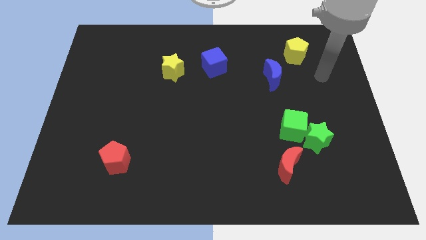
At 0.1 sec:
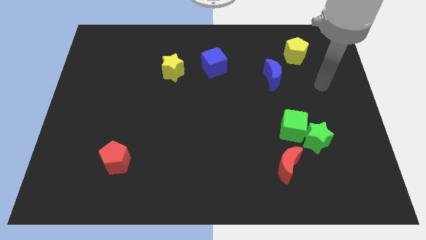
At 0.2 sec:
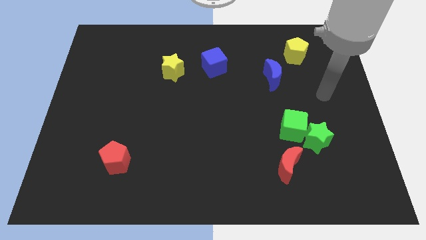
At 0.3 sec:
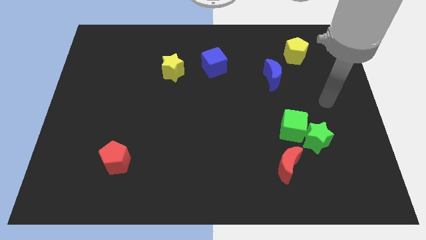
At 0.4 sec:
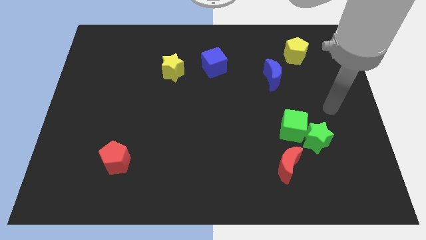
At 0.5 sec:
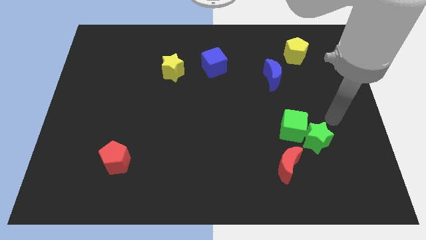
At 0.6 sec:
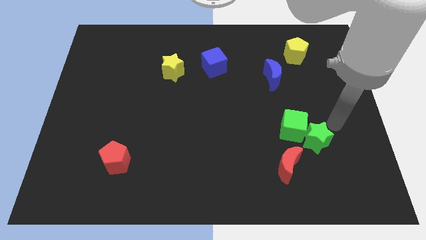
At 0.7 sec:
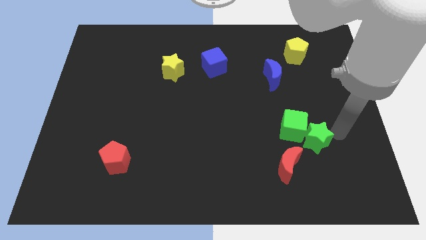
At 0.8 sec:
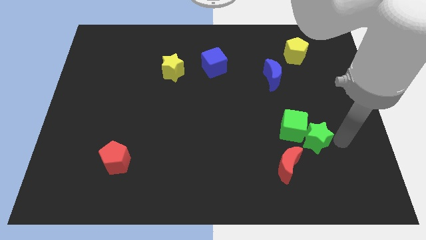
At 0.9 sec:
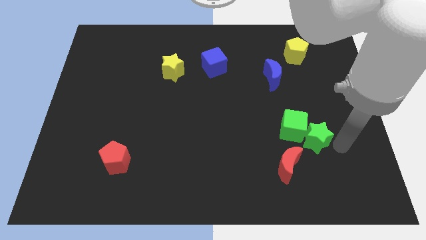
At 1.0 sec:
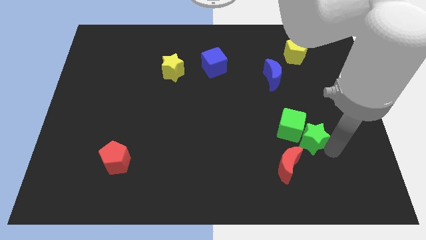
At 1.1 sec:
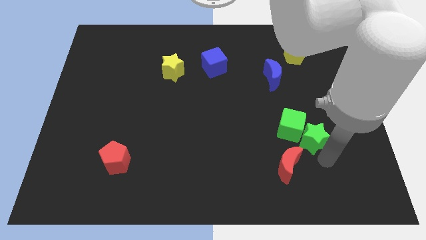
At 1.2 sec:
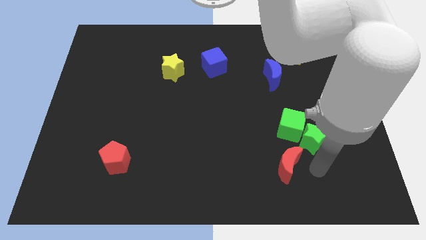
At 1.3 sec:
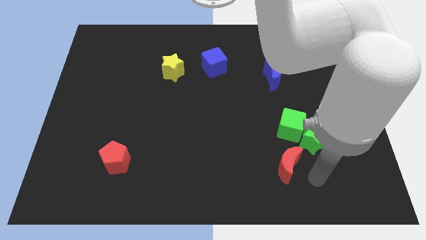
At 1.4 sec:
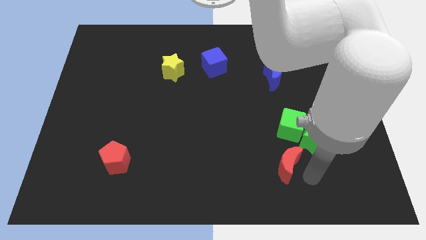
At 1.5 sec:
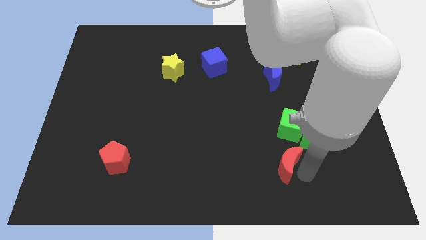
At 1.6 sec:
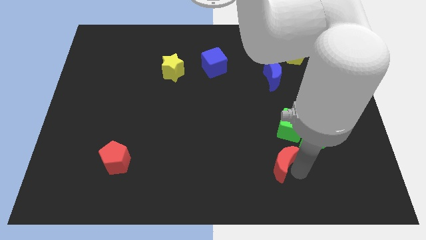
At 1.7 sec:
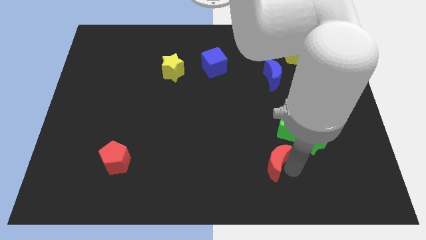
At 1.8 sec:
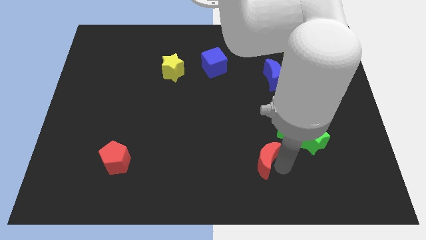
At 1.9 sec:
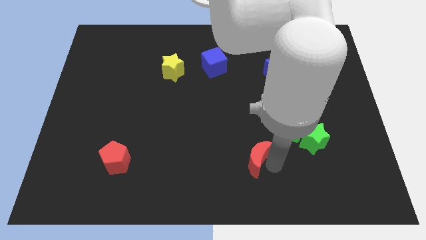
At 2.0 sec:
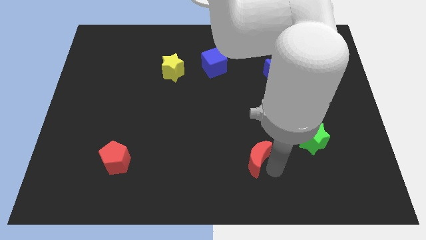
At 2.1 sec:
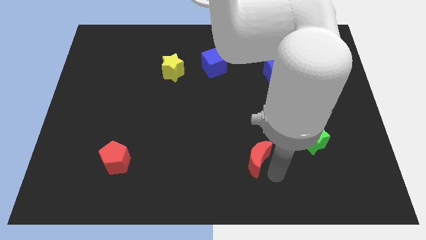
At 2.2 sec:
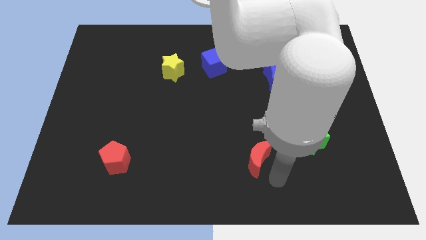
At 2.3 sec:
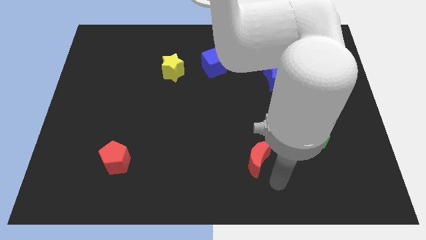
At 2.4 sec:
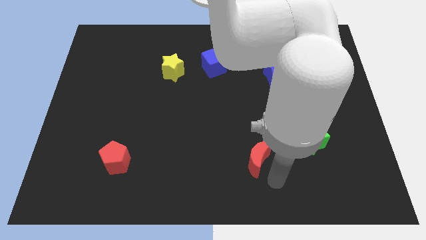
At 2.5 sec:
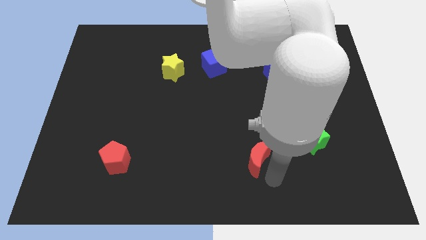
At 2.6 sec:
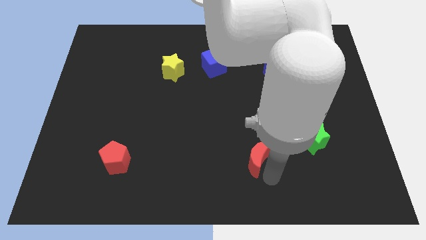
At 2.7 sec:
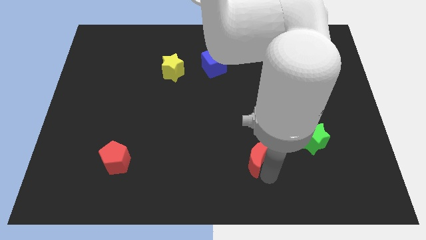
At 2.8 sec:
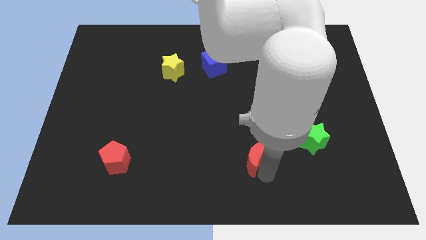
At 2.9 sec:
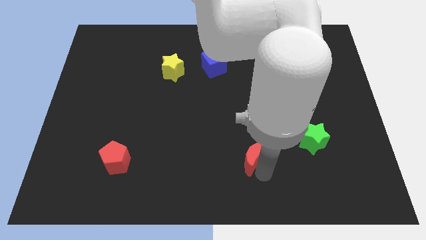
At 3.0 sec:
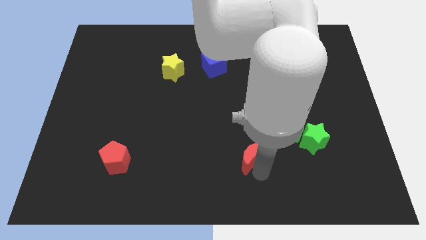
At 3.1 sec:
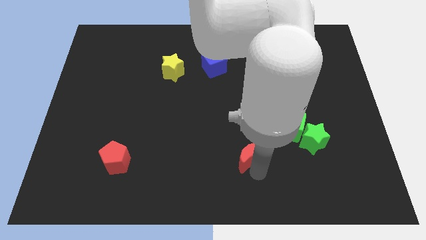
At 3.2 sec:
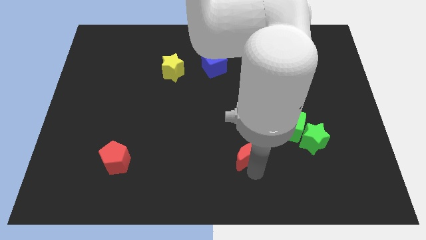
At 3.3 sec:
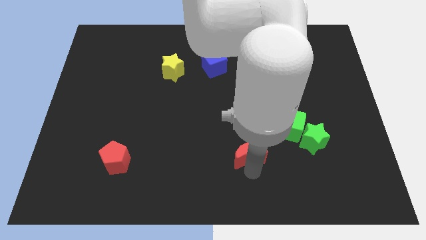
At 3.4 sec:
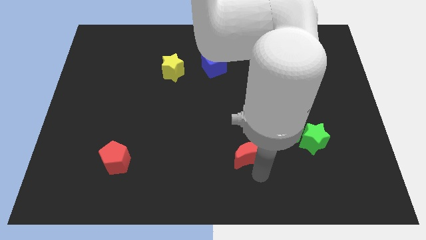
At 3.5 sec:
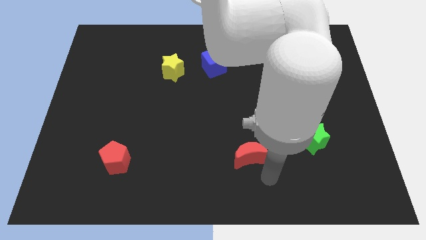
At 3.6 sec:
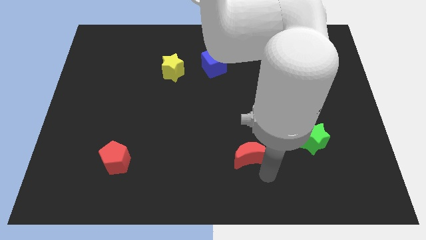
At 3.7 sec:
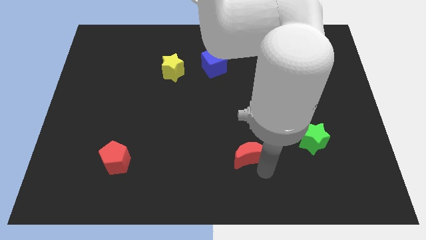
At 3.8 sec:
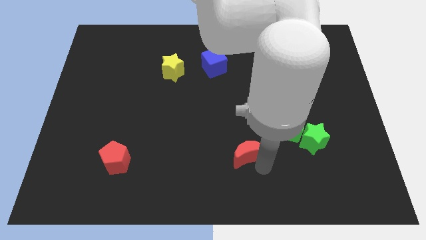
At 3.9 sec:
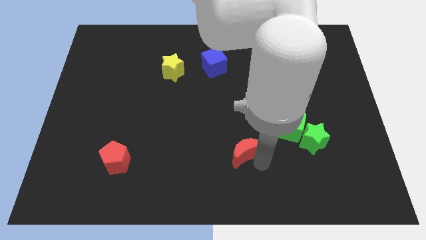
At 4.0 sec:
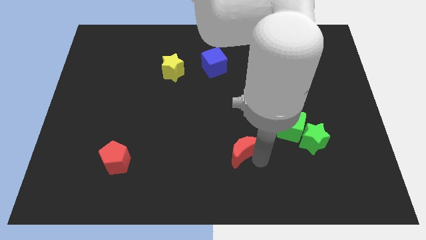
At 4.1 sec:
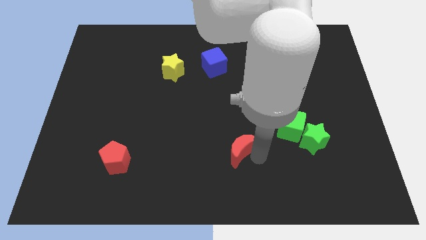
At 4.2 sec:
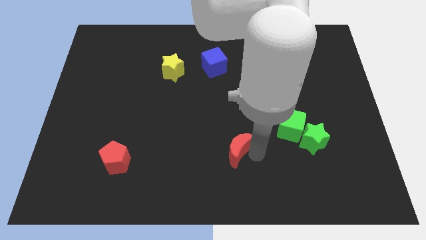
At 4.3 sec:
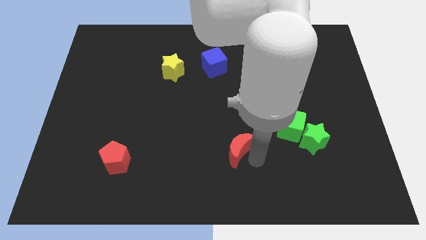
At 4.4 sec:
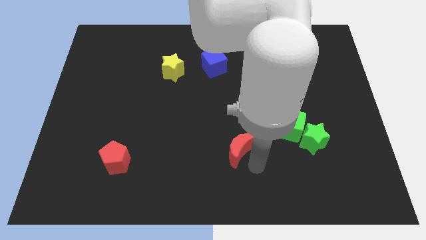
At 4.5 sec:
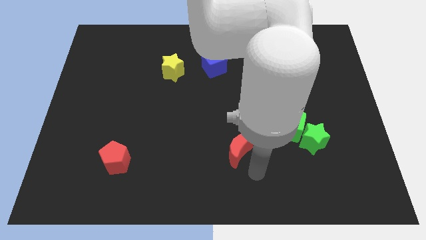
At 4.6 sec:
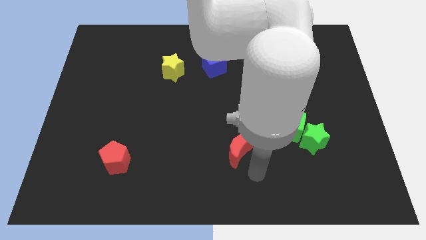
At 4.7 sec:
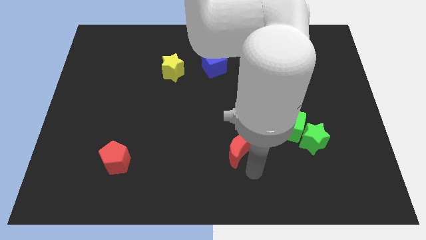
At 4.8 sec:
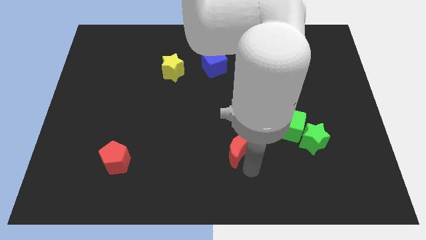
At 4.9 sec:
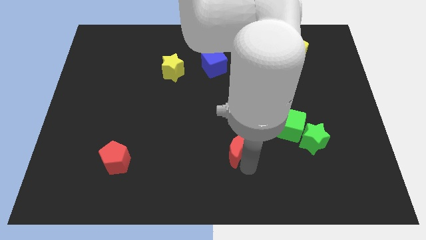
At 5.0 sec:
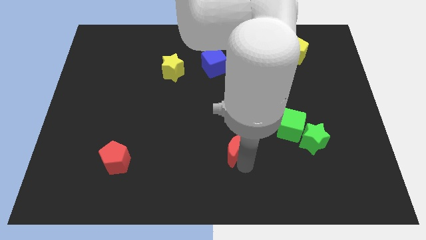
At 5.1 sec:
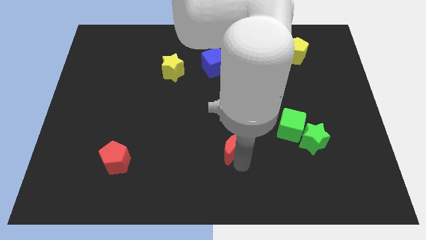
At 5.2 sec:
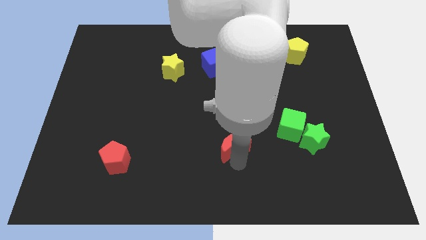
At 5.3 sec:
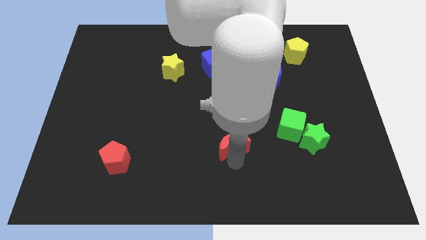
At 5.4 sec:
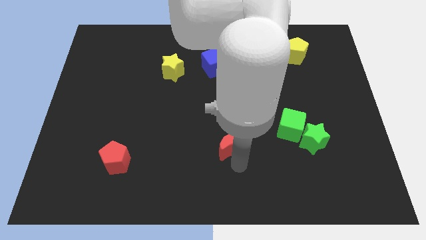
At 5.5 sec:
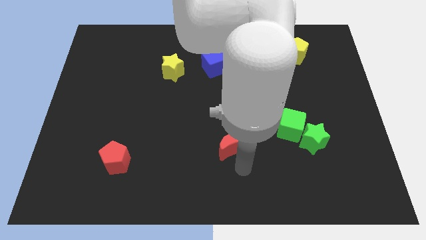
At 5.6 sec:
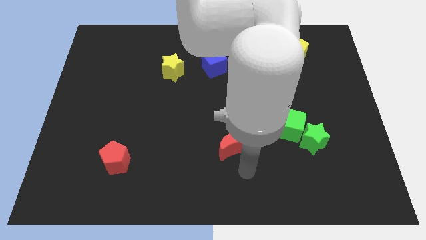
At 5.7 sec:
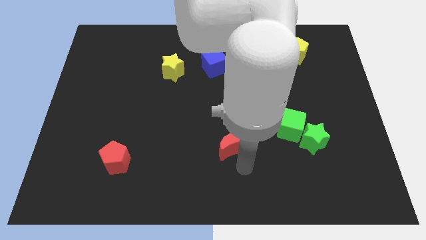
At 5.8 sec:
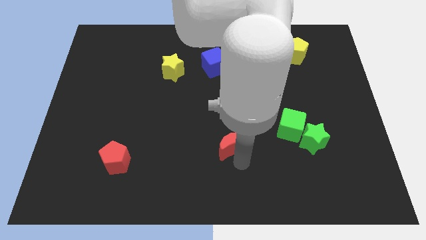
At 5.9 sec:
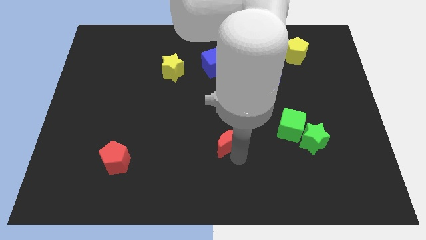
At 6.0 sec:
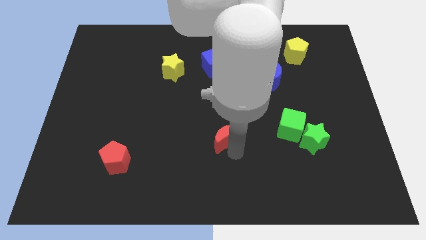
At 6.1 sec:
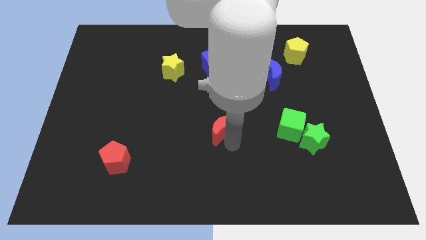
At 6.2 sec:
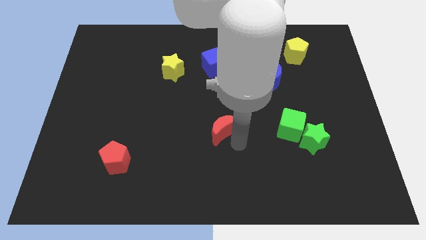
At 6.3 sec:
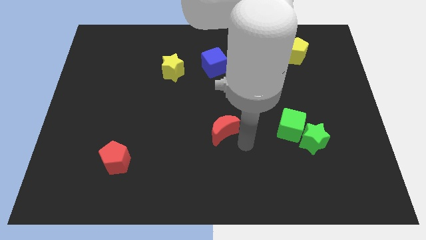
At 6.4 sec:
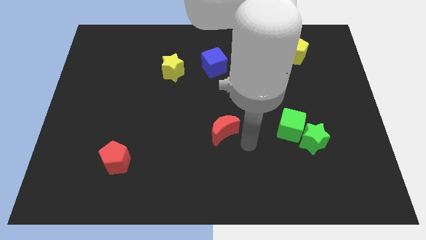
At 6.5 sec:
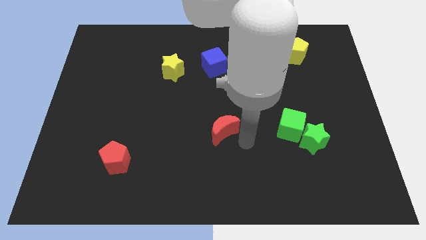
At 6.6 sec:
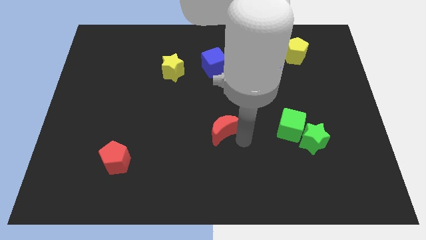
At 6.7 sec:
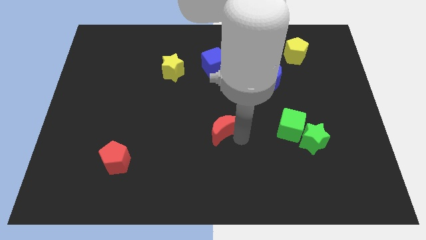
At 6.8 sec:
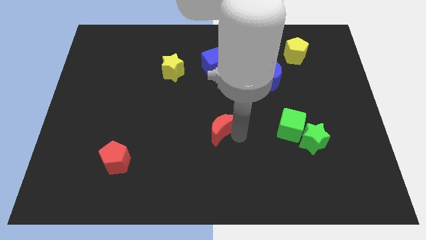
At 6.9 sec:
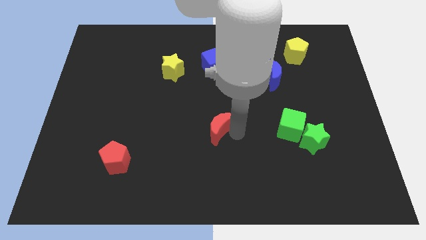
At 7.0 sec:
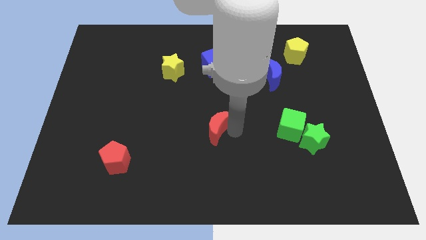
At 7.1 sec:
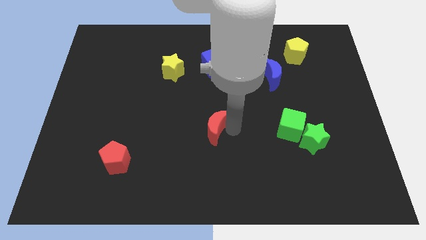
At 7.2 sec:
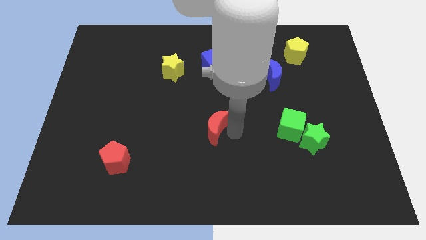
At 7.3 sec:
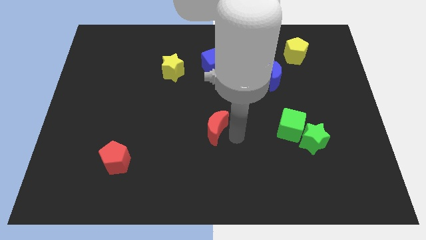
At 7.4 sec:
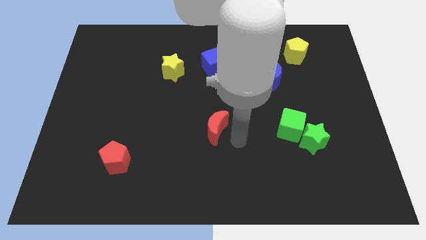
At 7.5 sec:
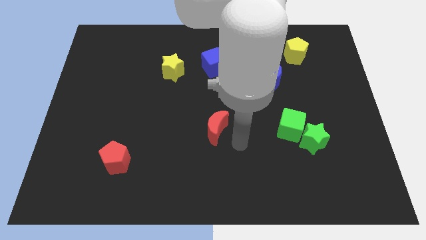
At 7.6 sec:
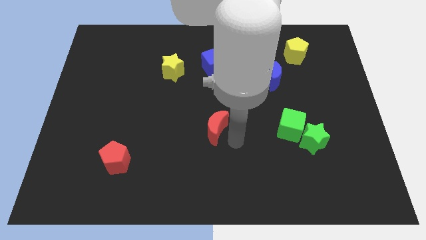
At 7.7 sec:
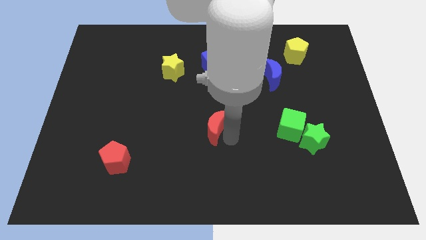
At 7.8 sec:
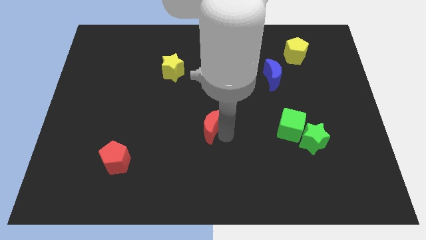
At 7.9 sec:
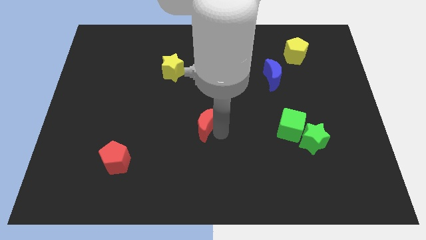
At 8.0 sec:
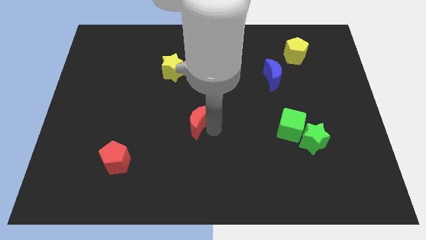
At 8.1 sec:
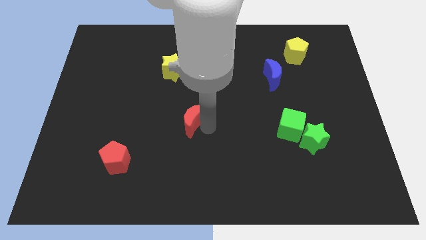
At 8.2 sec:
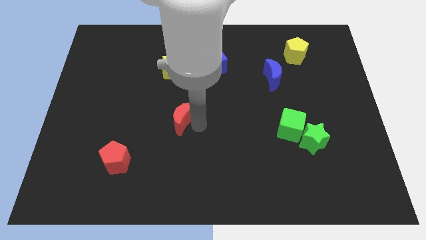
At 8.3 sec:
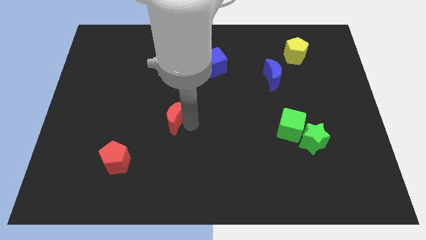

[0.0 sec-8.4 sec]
slide the red moon to the bottom of the yellow star
